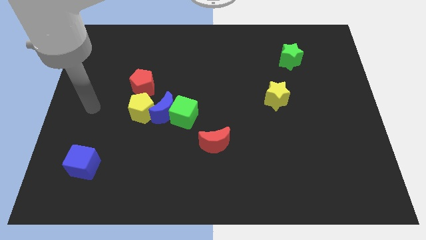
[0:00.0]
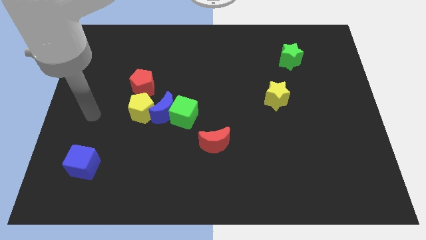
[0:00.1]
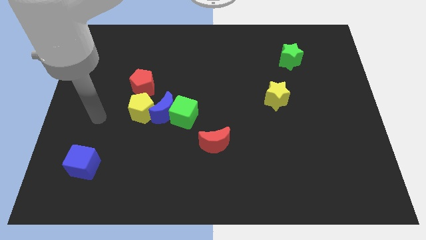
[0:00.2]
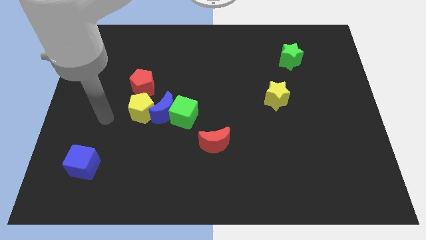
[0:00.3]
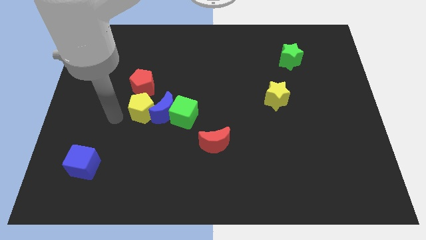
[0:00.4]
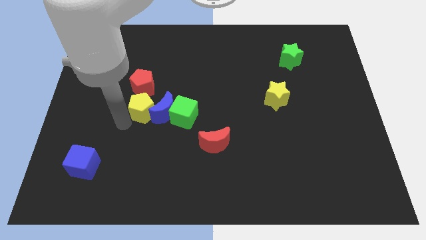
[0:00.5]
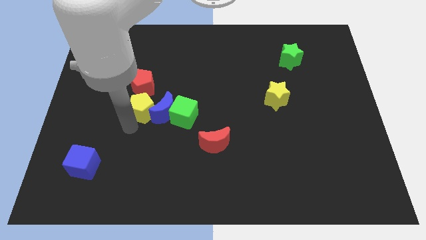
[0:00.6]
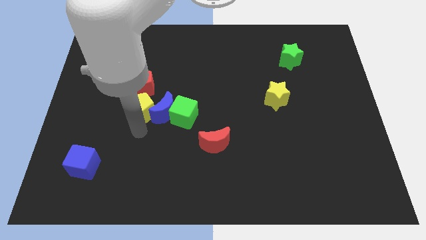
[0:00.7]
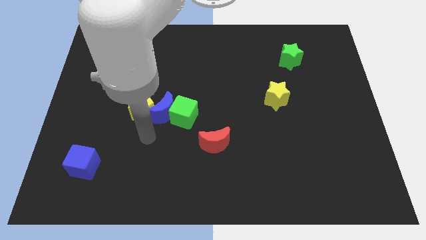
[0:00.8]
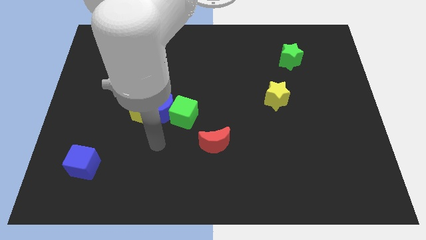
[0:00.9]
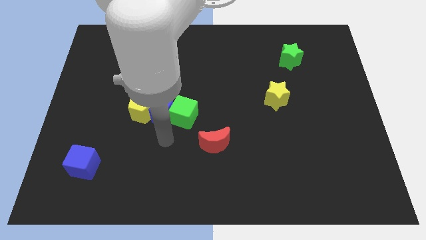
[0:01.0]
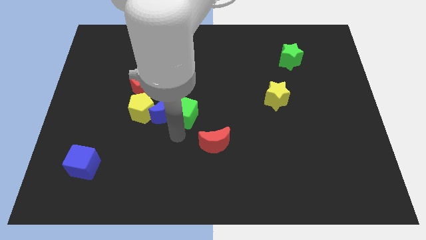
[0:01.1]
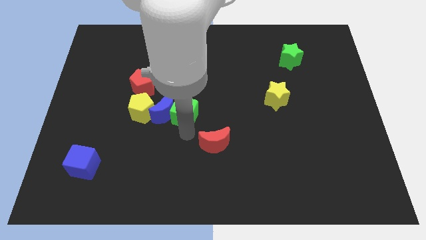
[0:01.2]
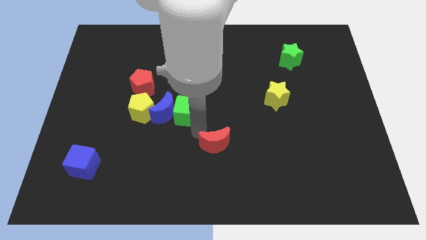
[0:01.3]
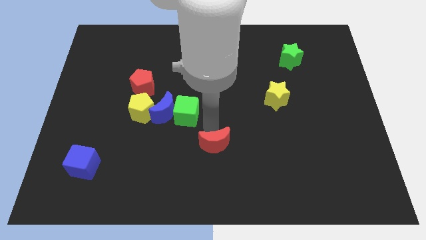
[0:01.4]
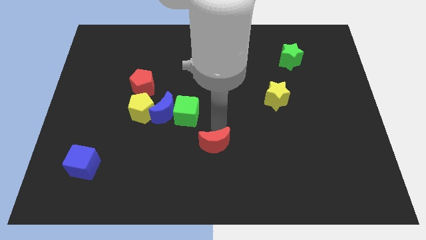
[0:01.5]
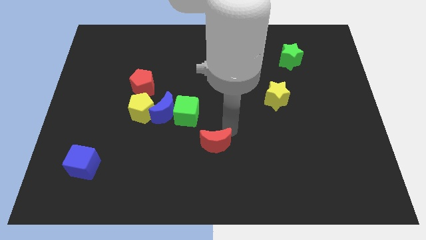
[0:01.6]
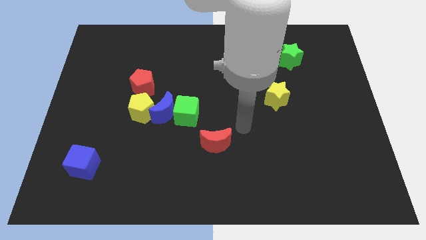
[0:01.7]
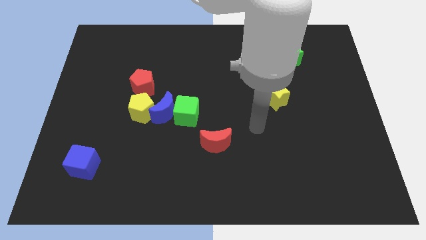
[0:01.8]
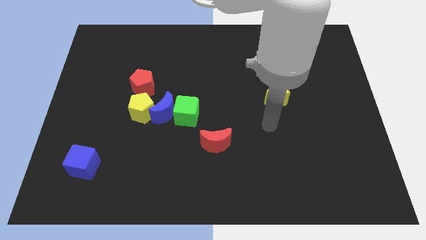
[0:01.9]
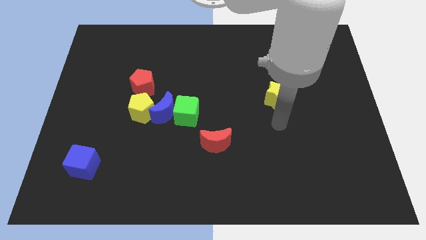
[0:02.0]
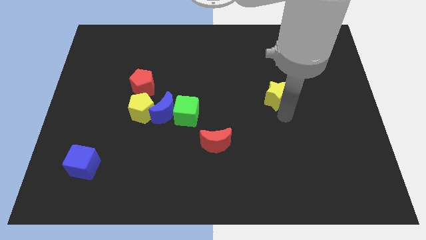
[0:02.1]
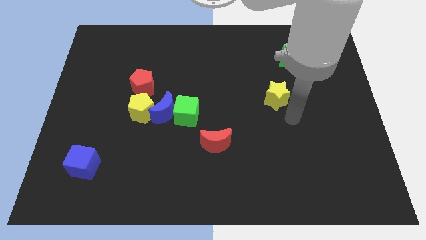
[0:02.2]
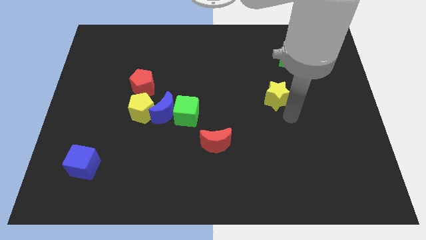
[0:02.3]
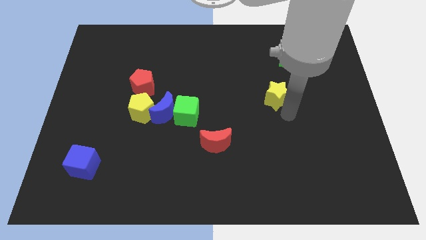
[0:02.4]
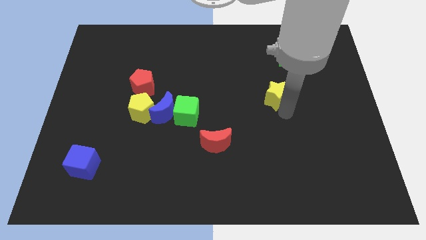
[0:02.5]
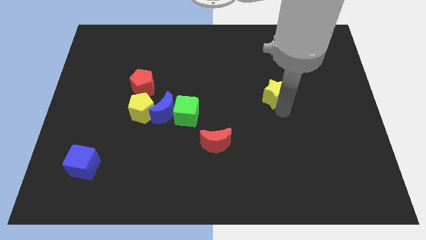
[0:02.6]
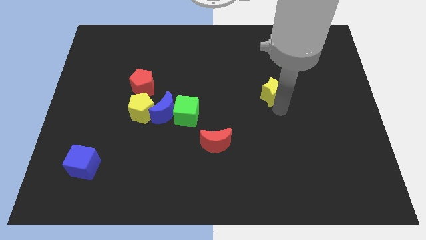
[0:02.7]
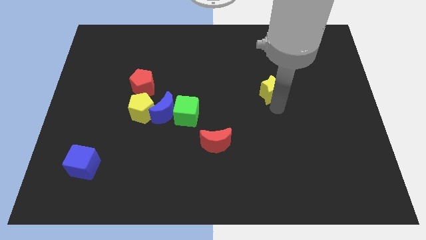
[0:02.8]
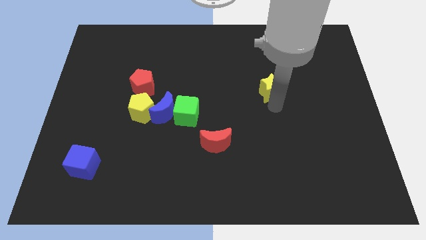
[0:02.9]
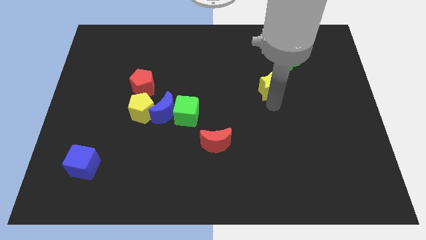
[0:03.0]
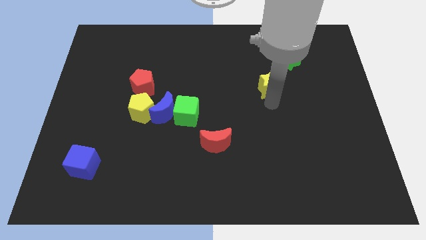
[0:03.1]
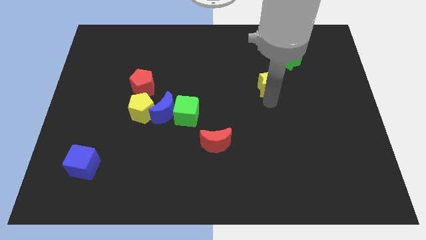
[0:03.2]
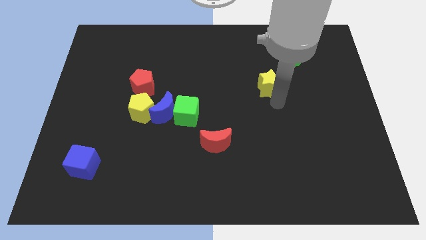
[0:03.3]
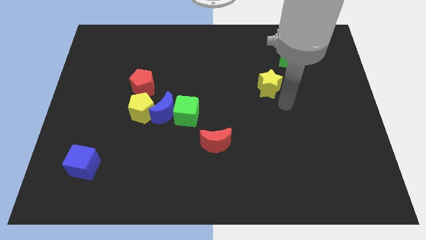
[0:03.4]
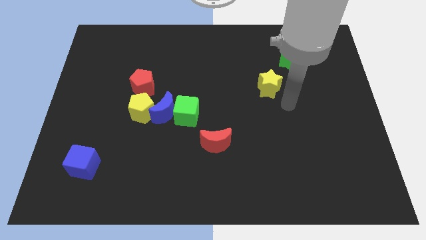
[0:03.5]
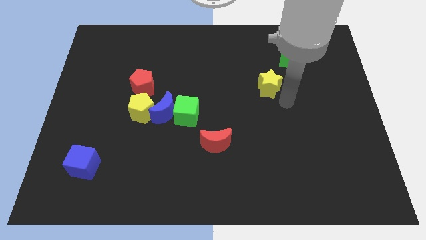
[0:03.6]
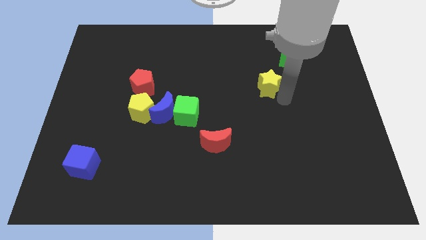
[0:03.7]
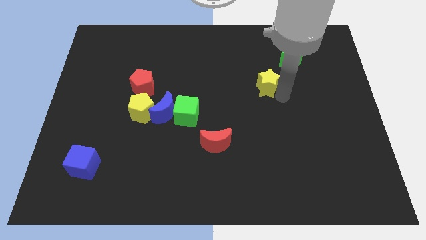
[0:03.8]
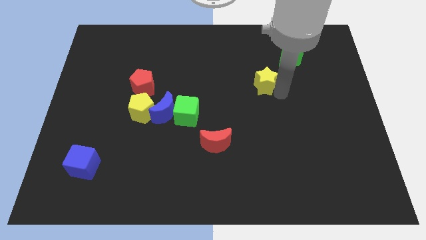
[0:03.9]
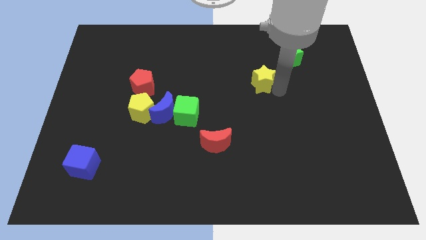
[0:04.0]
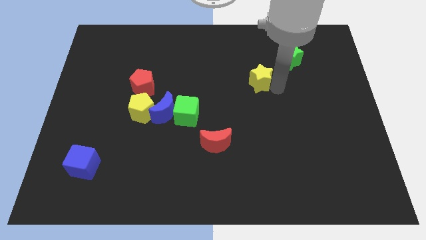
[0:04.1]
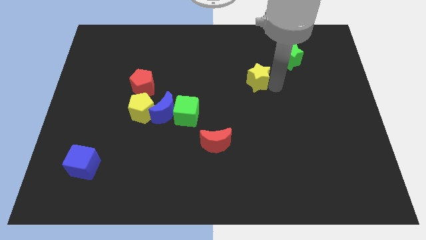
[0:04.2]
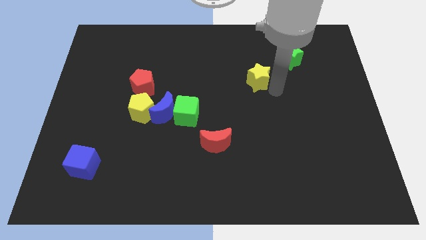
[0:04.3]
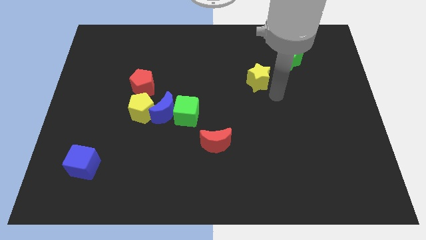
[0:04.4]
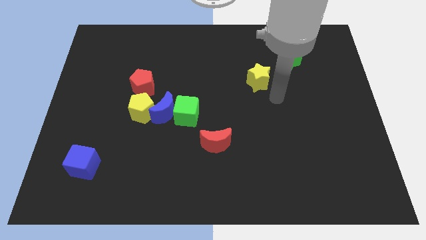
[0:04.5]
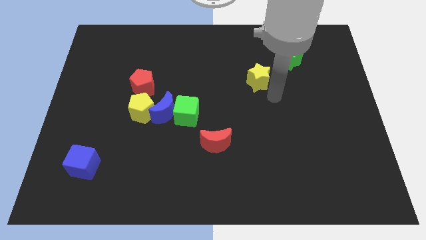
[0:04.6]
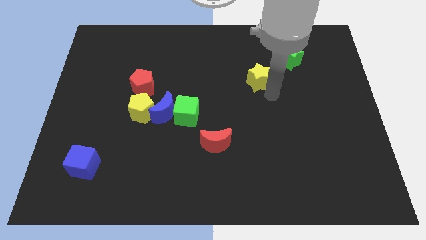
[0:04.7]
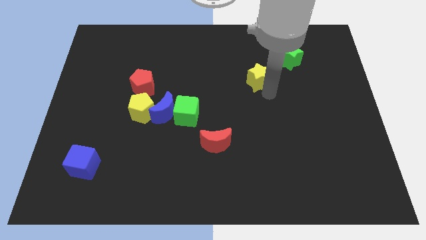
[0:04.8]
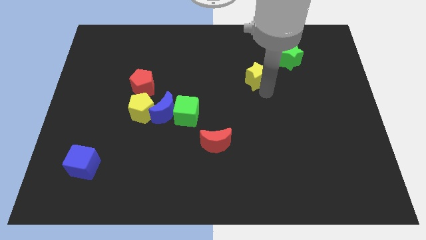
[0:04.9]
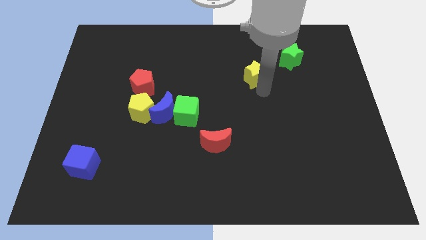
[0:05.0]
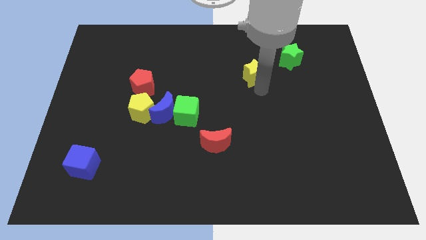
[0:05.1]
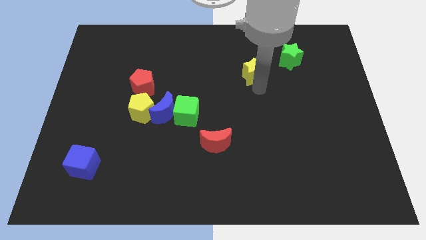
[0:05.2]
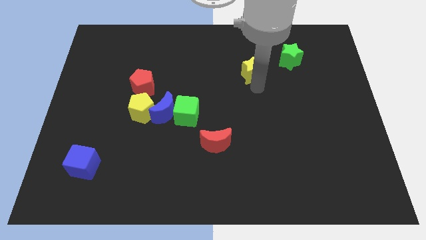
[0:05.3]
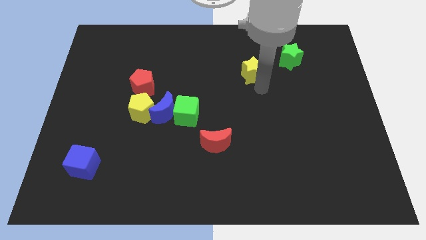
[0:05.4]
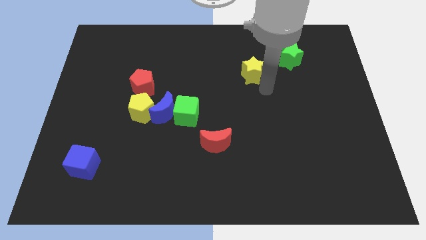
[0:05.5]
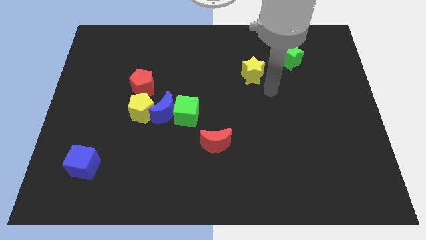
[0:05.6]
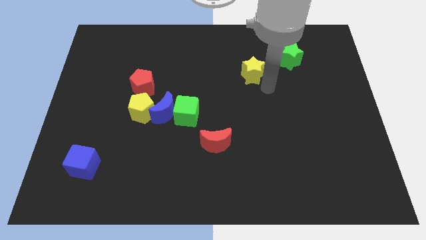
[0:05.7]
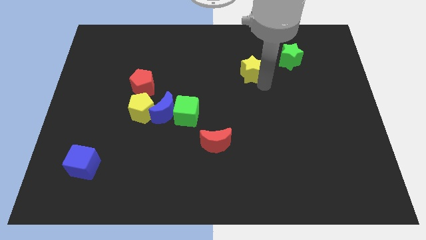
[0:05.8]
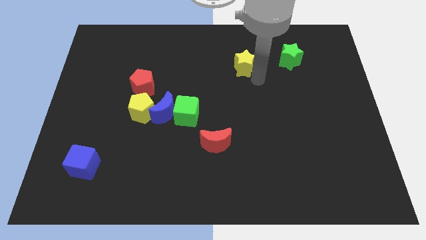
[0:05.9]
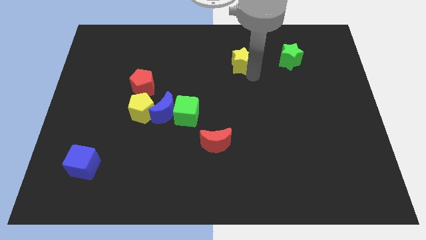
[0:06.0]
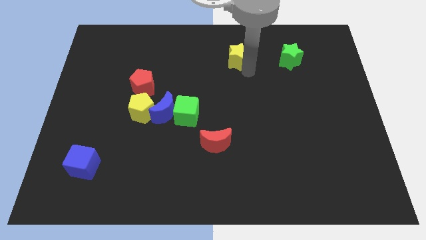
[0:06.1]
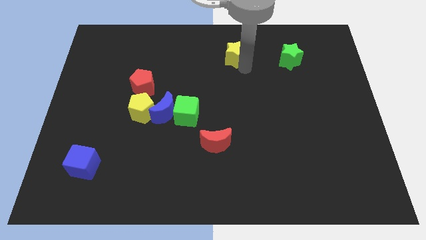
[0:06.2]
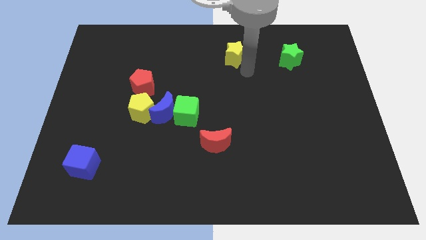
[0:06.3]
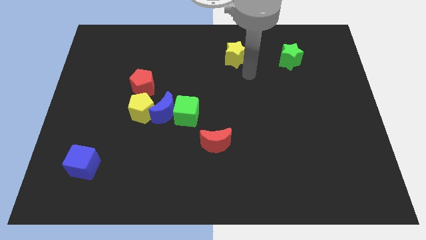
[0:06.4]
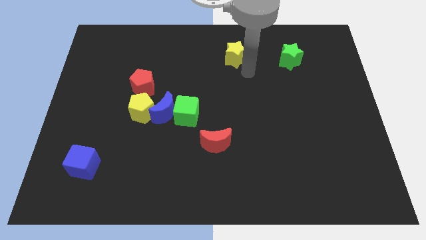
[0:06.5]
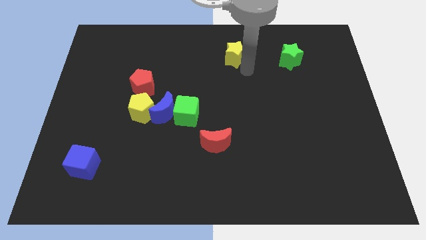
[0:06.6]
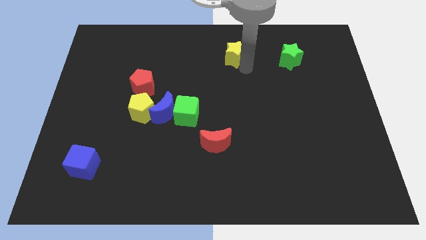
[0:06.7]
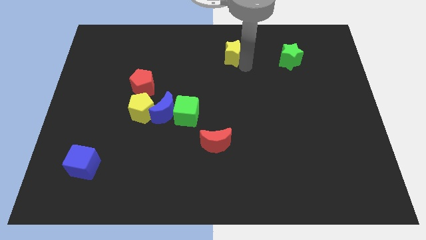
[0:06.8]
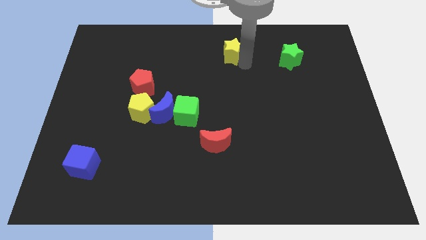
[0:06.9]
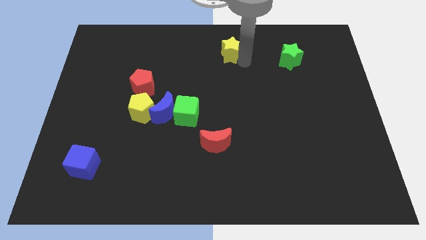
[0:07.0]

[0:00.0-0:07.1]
slide the yellow star to the towards your base
